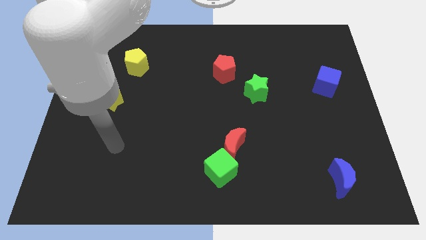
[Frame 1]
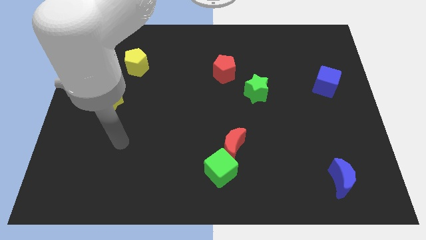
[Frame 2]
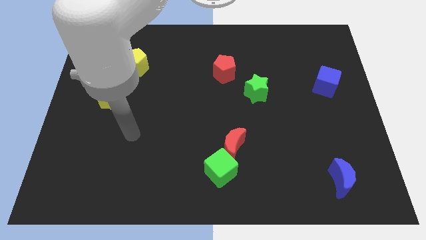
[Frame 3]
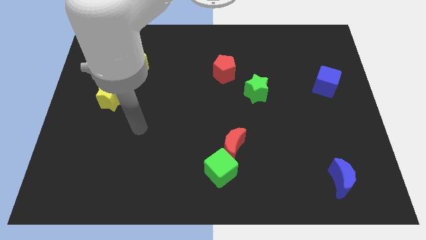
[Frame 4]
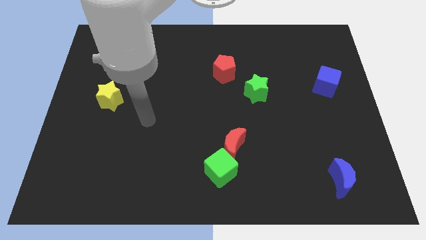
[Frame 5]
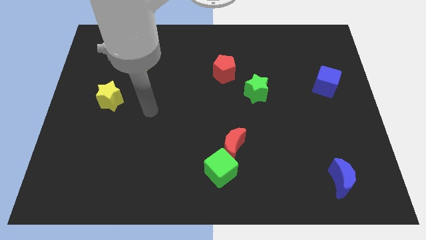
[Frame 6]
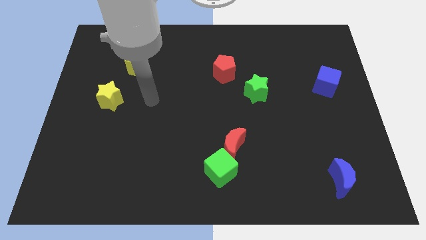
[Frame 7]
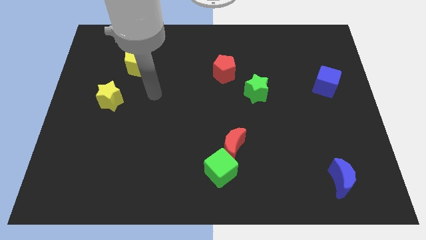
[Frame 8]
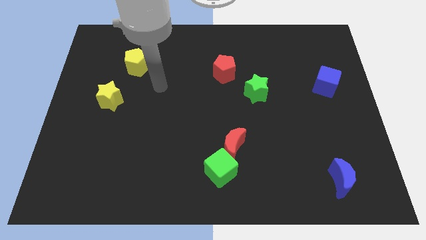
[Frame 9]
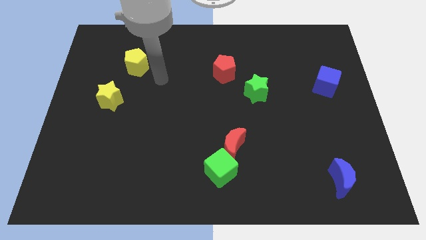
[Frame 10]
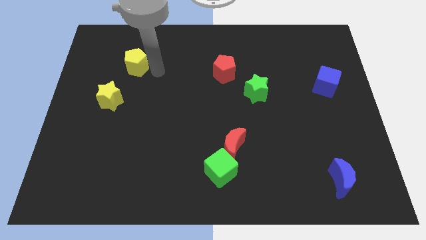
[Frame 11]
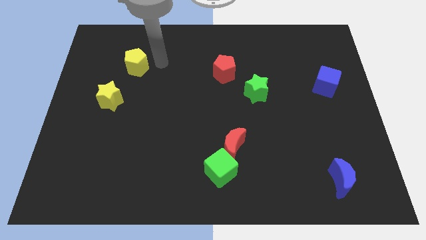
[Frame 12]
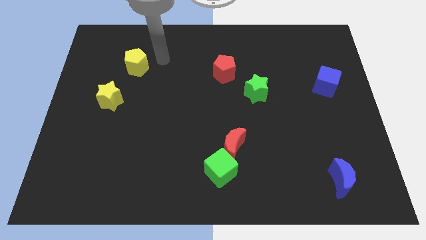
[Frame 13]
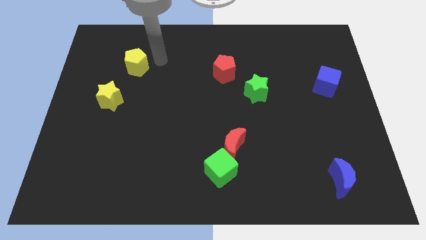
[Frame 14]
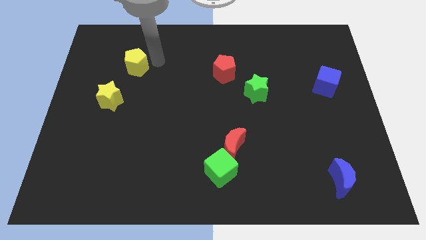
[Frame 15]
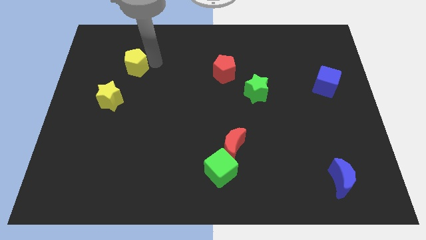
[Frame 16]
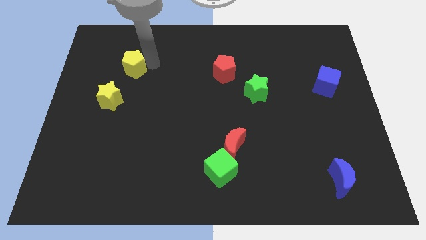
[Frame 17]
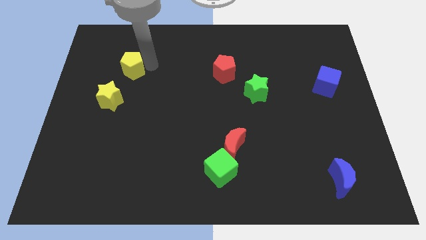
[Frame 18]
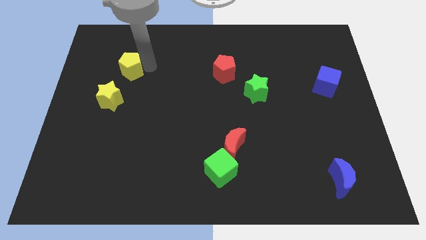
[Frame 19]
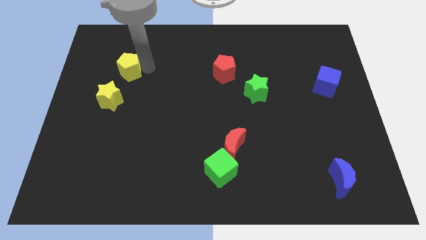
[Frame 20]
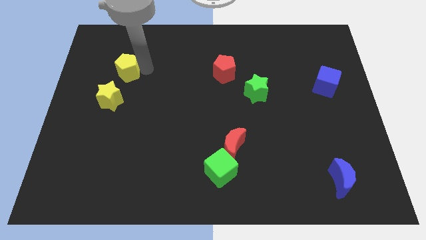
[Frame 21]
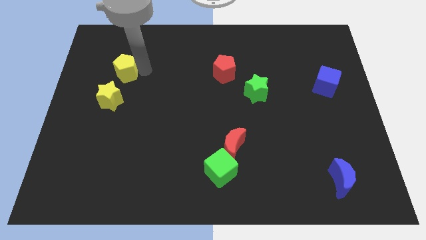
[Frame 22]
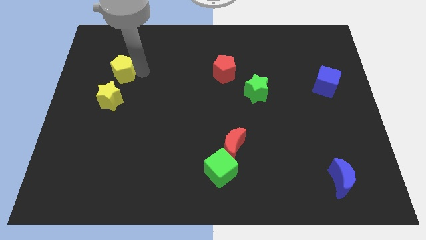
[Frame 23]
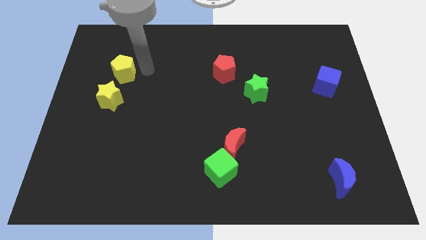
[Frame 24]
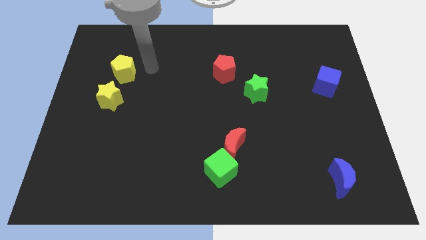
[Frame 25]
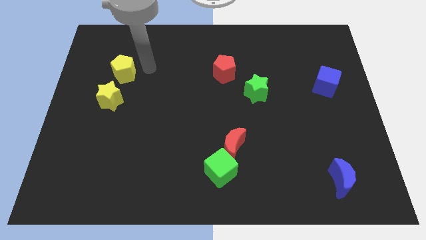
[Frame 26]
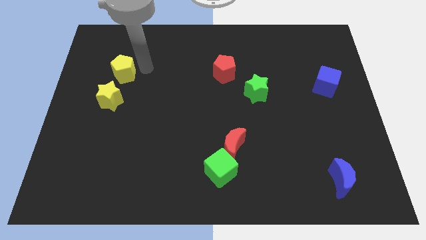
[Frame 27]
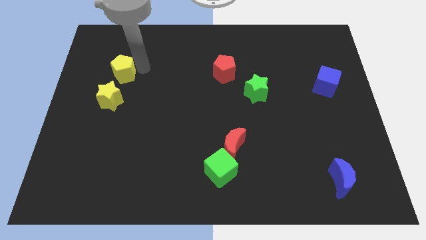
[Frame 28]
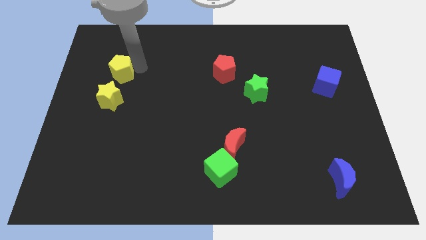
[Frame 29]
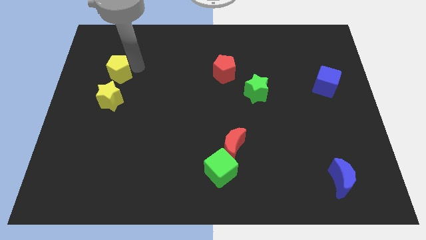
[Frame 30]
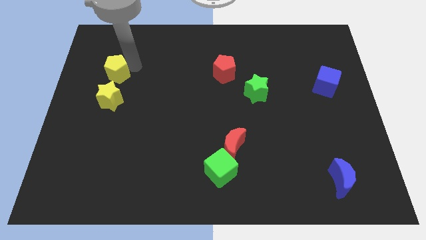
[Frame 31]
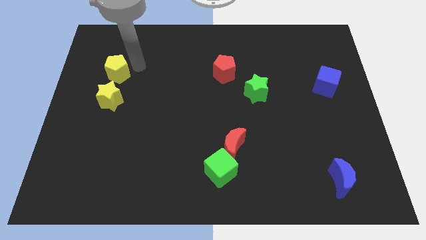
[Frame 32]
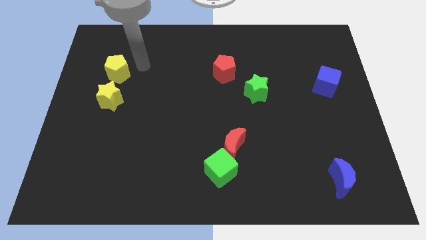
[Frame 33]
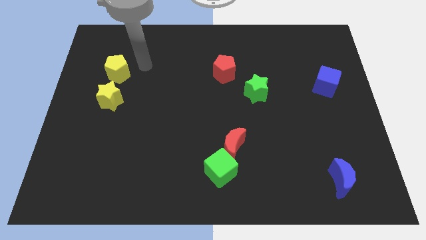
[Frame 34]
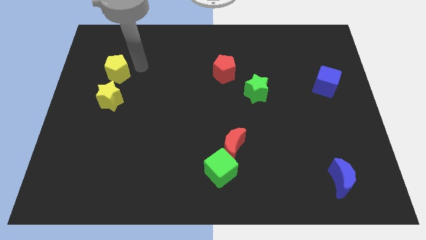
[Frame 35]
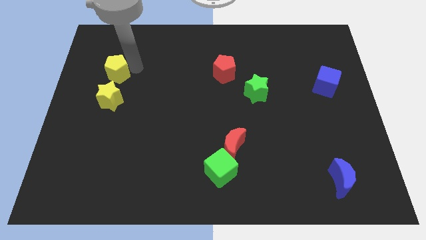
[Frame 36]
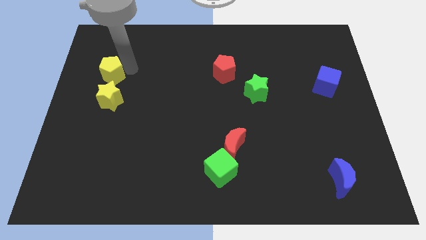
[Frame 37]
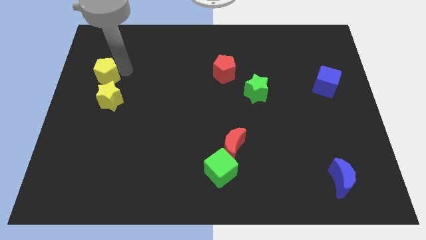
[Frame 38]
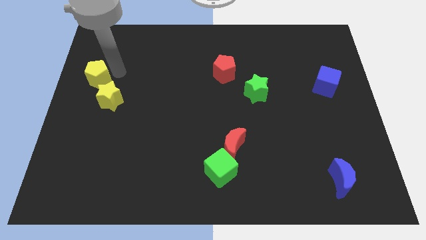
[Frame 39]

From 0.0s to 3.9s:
push the yellow pentagon to the left side

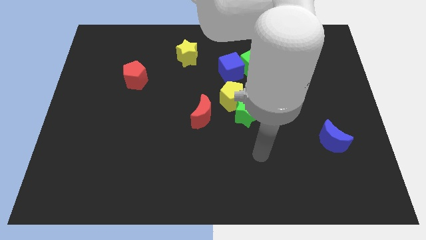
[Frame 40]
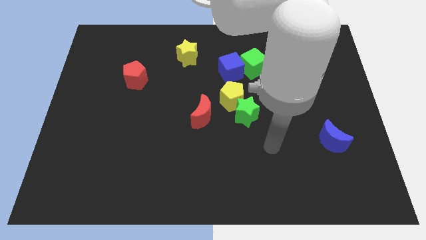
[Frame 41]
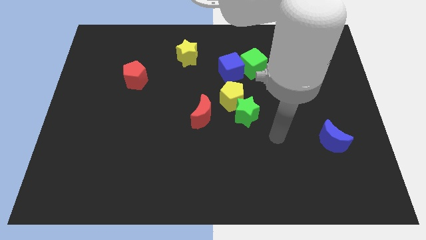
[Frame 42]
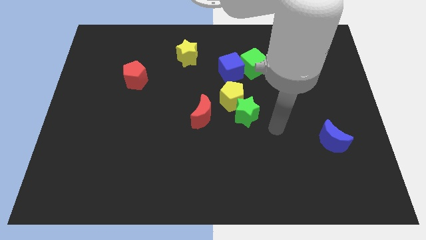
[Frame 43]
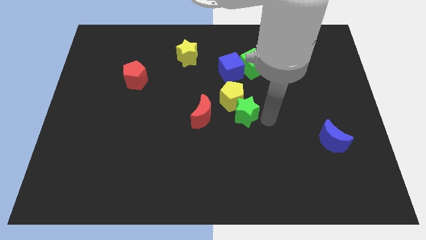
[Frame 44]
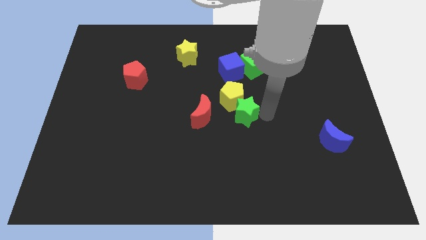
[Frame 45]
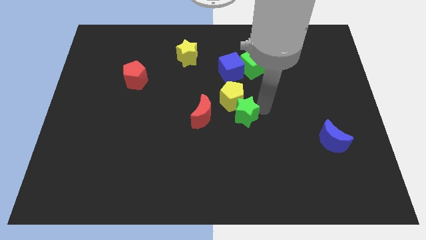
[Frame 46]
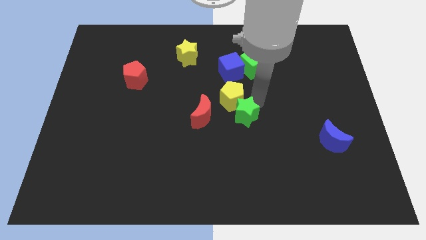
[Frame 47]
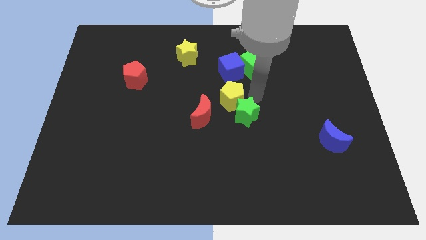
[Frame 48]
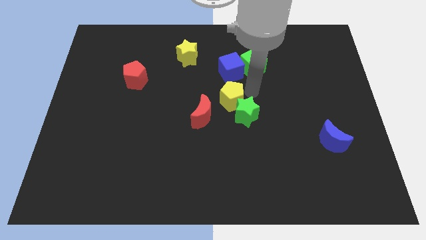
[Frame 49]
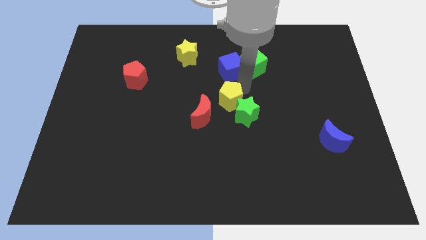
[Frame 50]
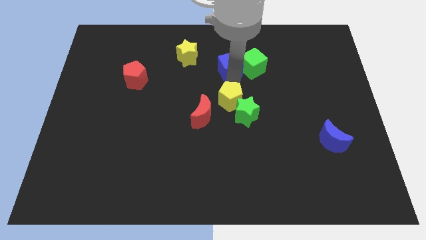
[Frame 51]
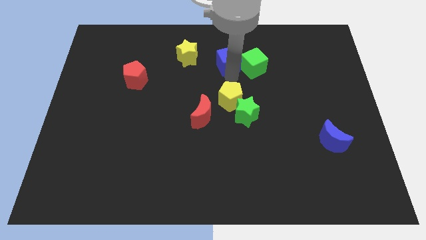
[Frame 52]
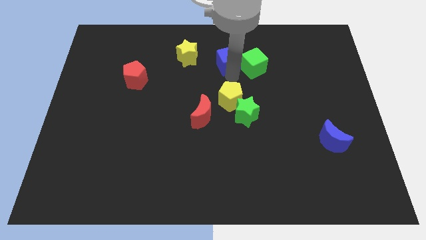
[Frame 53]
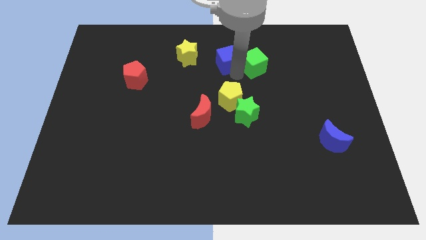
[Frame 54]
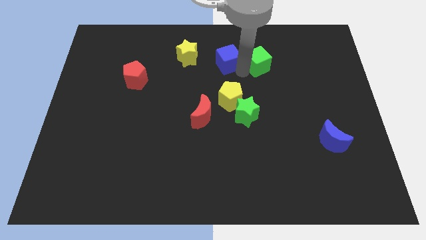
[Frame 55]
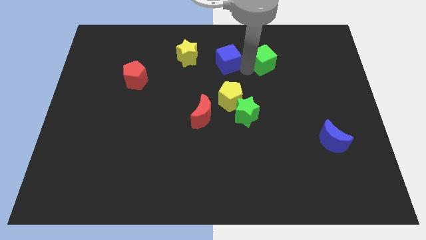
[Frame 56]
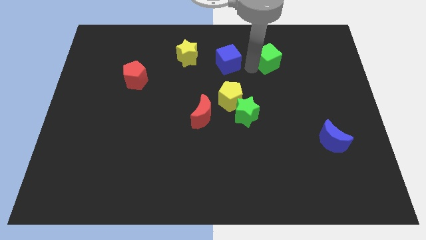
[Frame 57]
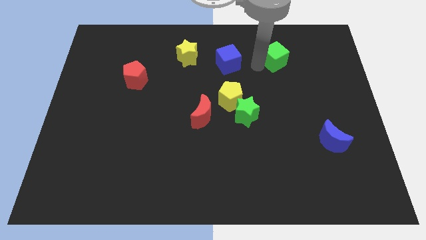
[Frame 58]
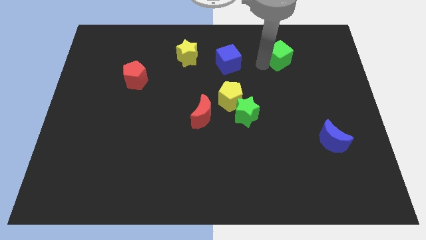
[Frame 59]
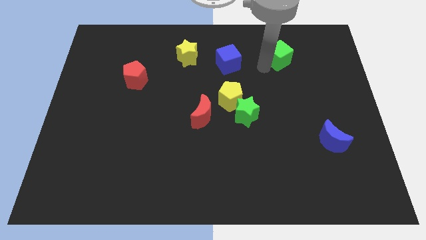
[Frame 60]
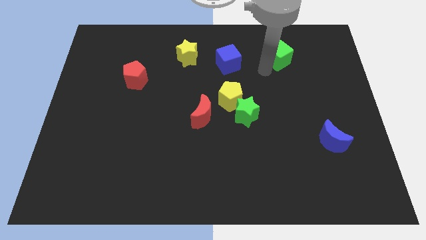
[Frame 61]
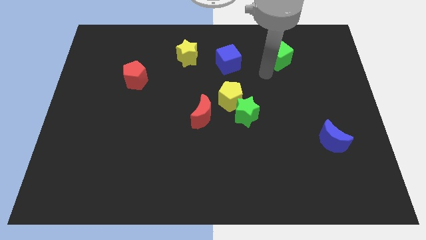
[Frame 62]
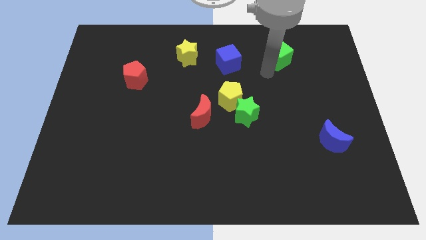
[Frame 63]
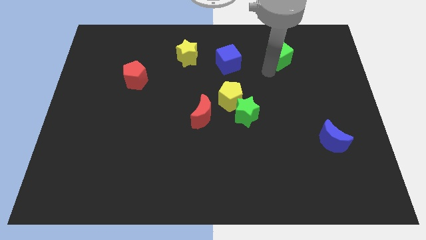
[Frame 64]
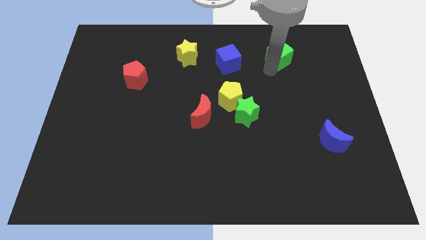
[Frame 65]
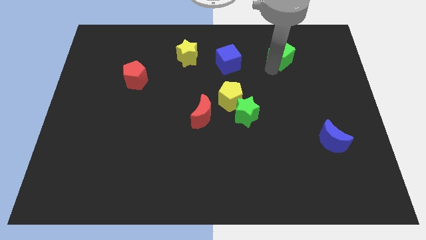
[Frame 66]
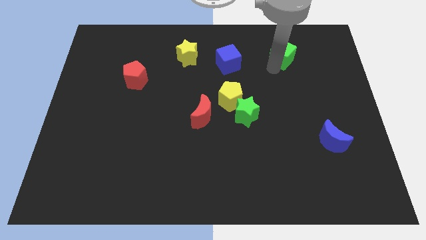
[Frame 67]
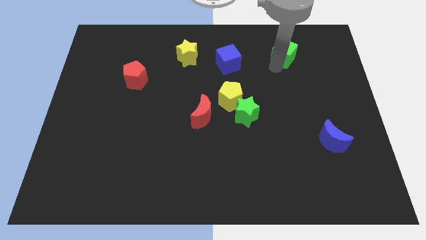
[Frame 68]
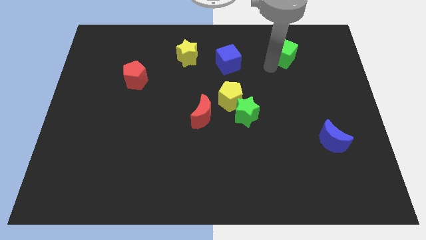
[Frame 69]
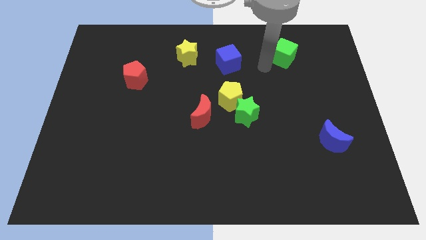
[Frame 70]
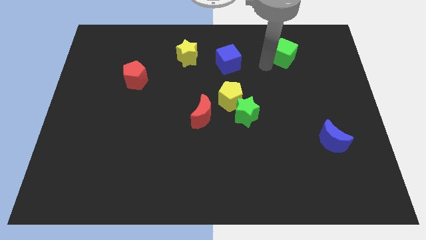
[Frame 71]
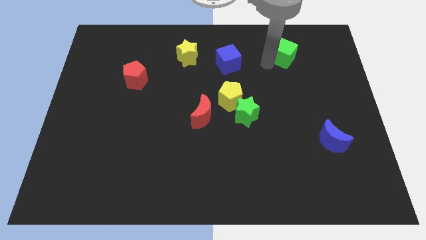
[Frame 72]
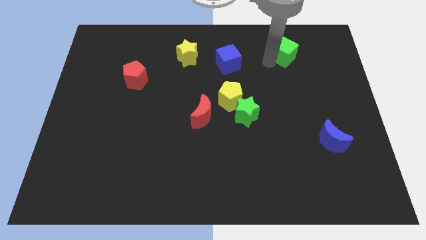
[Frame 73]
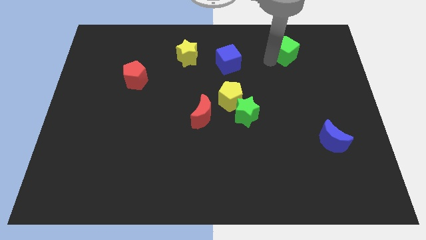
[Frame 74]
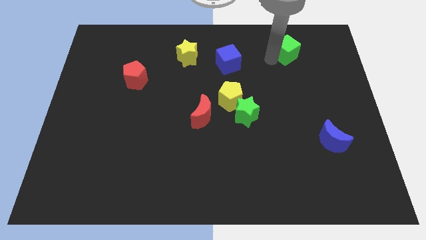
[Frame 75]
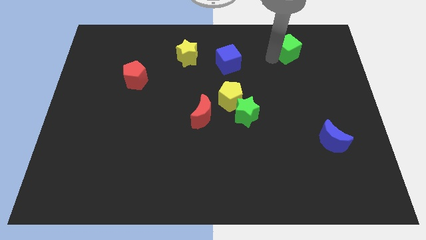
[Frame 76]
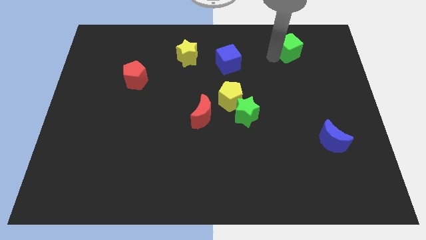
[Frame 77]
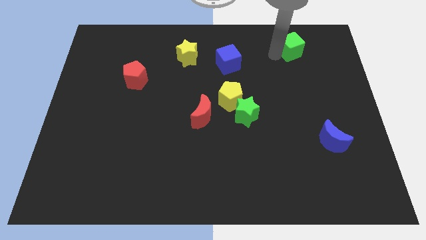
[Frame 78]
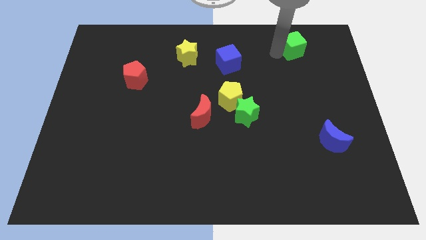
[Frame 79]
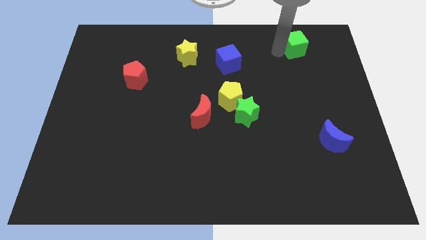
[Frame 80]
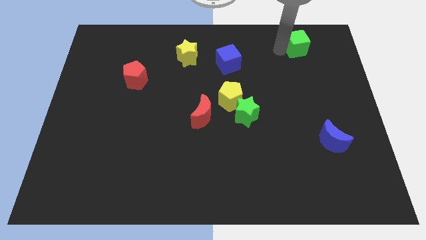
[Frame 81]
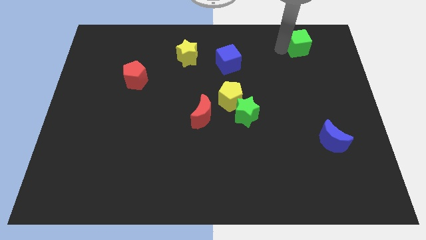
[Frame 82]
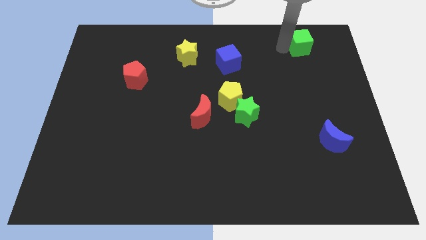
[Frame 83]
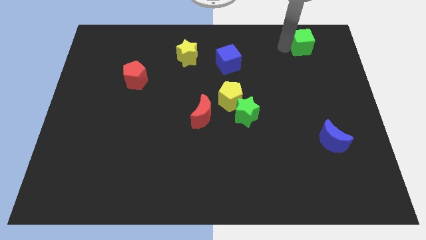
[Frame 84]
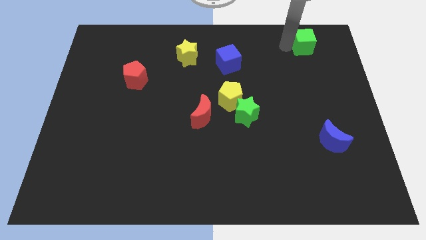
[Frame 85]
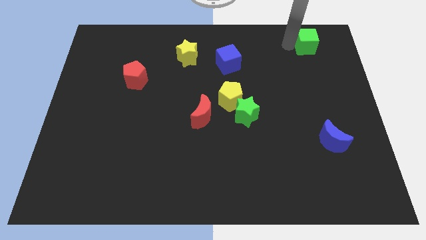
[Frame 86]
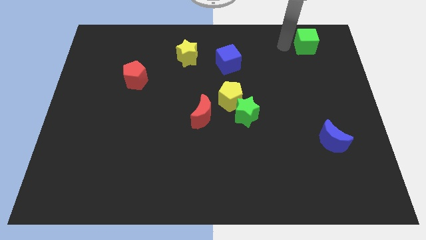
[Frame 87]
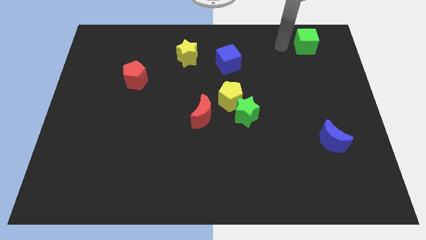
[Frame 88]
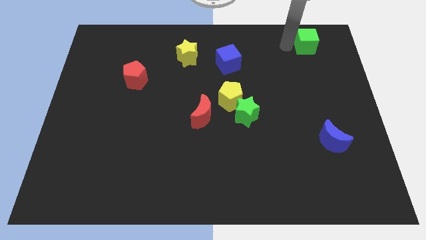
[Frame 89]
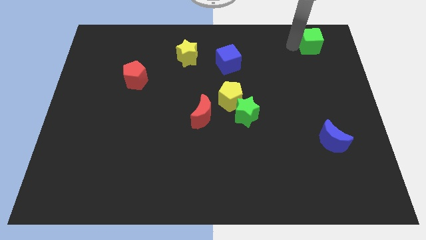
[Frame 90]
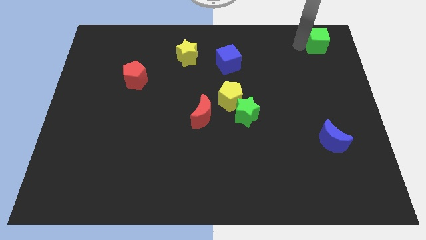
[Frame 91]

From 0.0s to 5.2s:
push the green cube to the top right
